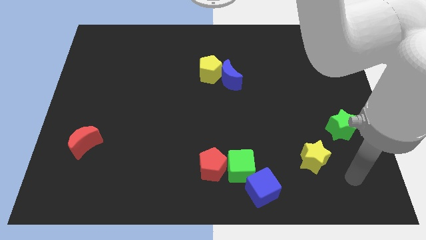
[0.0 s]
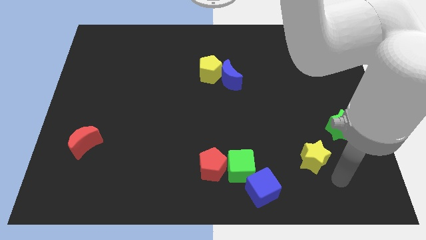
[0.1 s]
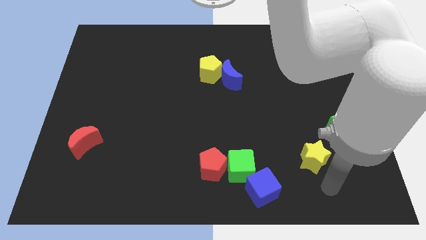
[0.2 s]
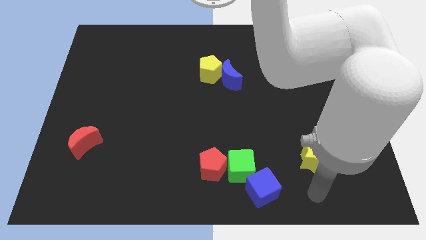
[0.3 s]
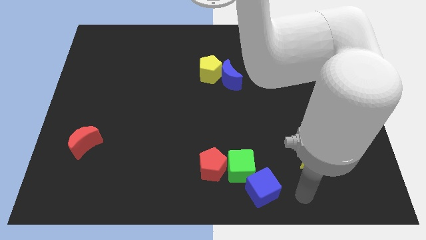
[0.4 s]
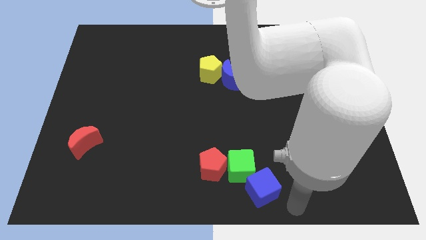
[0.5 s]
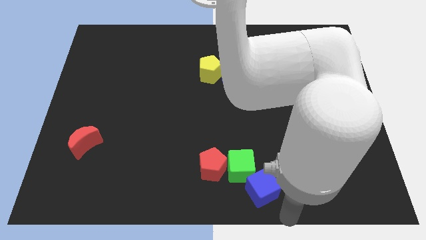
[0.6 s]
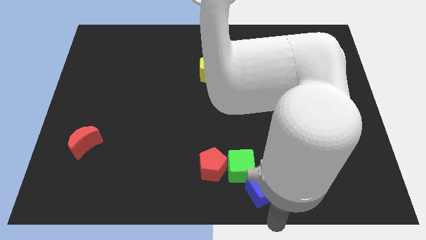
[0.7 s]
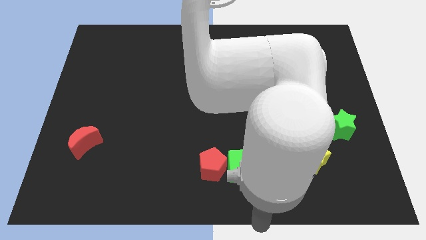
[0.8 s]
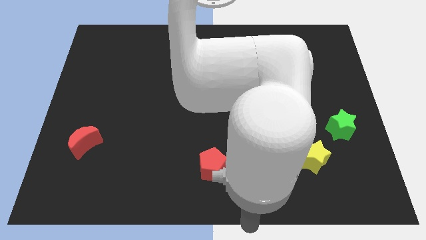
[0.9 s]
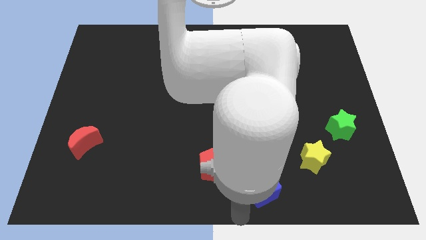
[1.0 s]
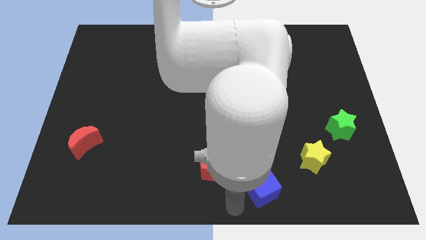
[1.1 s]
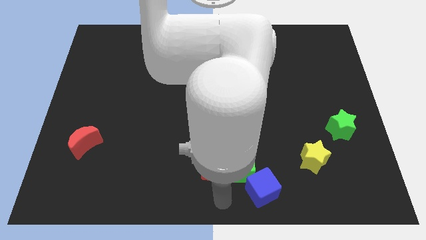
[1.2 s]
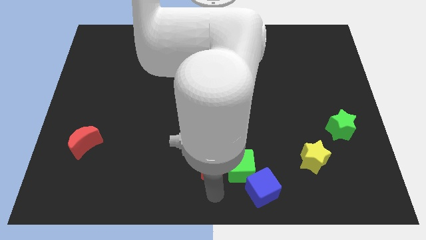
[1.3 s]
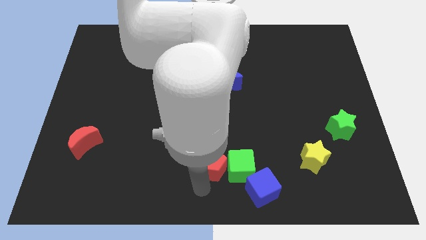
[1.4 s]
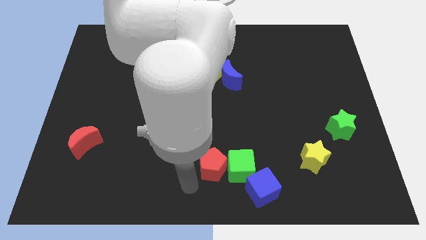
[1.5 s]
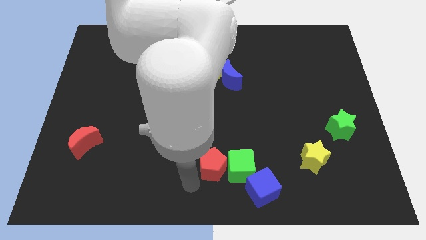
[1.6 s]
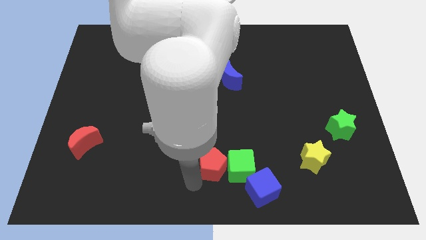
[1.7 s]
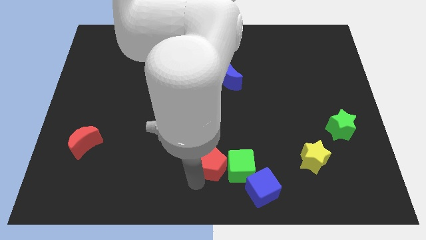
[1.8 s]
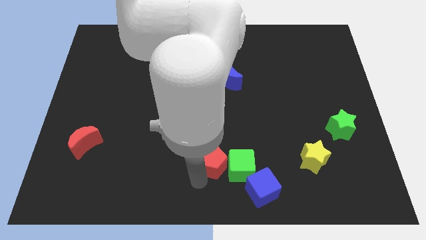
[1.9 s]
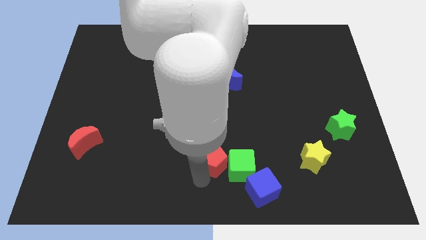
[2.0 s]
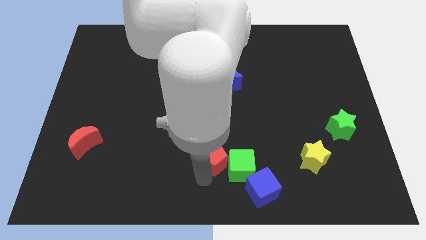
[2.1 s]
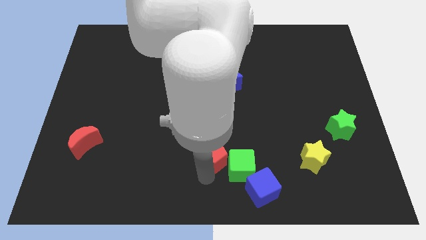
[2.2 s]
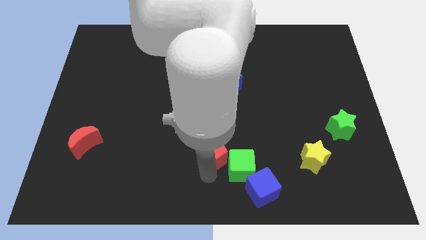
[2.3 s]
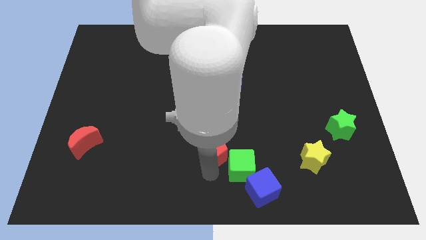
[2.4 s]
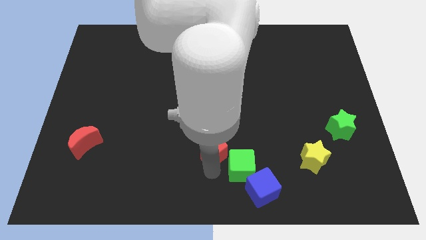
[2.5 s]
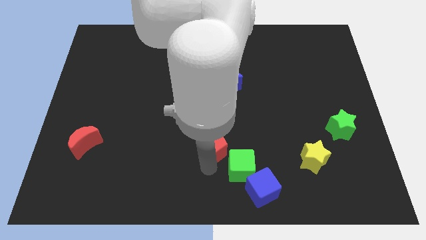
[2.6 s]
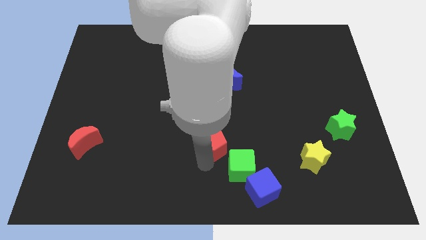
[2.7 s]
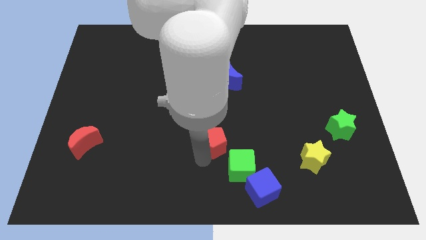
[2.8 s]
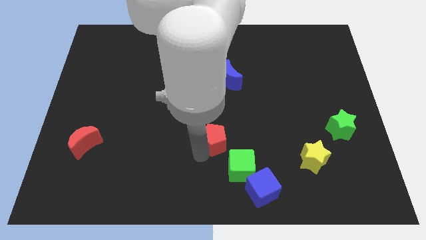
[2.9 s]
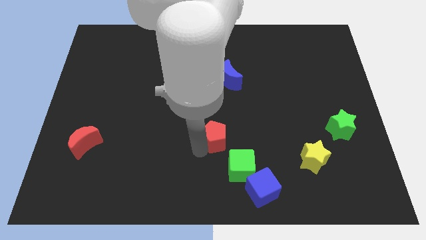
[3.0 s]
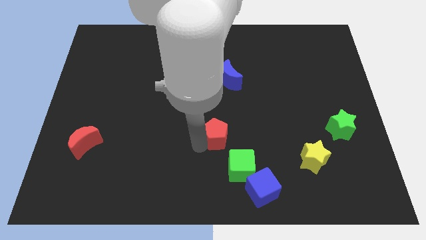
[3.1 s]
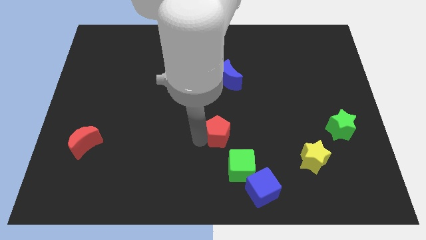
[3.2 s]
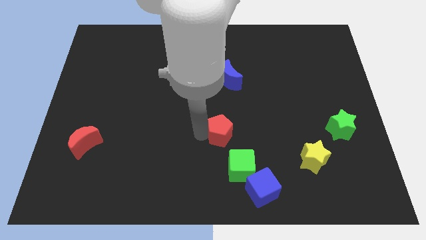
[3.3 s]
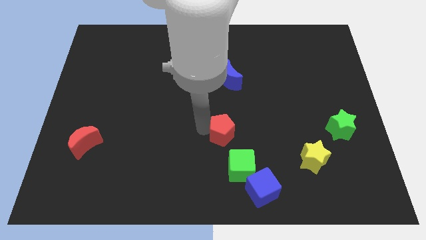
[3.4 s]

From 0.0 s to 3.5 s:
push the red pentagon up and right a little

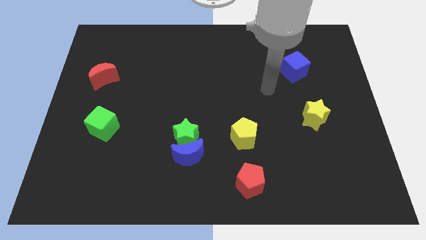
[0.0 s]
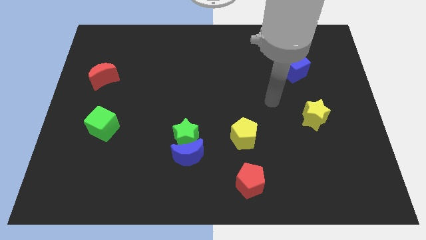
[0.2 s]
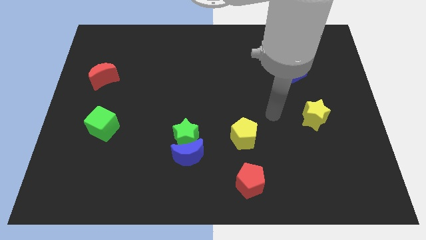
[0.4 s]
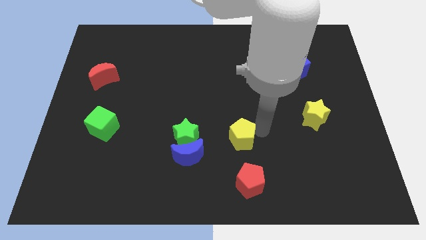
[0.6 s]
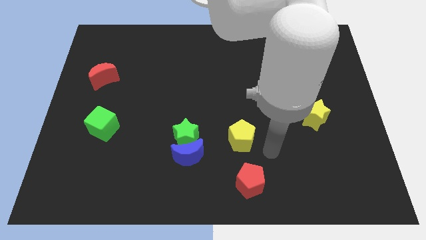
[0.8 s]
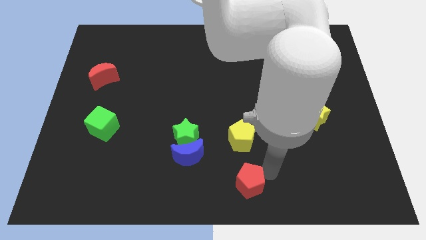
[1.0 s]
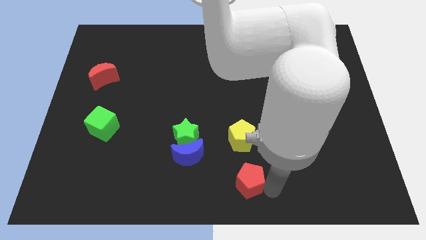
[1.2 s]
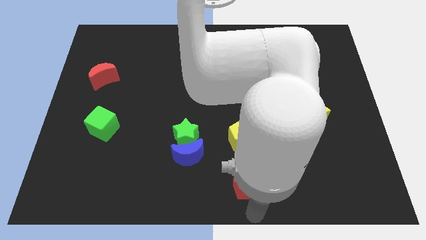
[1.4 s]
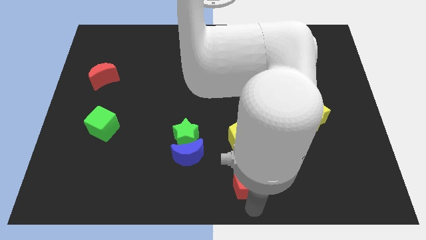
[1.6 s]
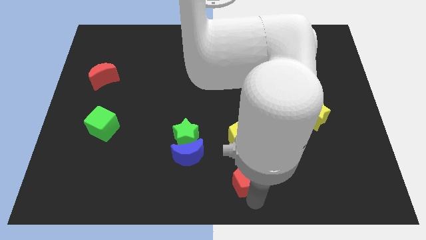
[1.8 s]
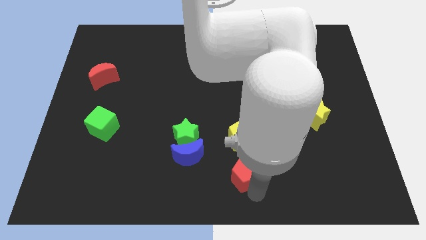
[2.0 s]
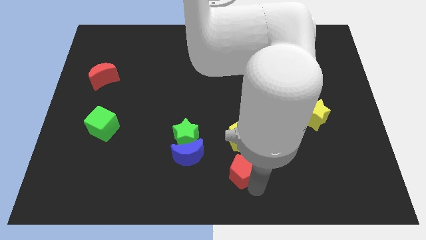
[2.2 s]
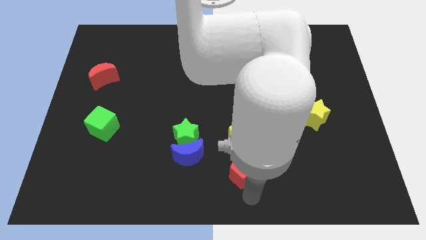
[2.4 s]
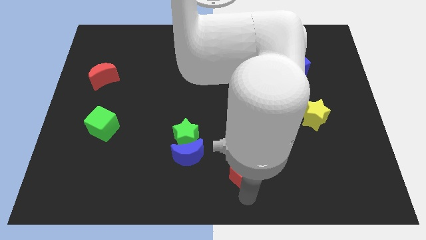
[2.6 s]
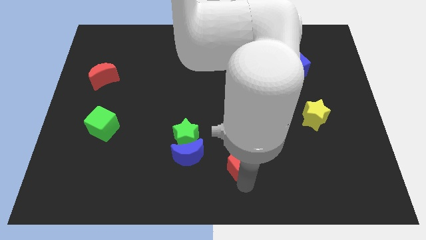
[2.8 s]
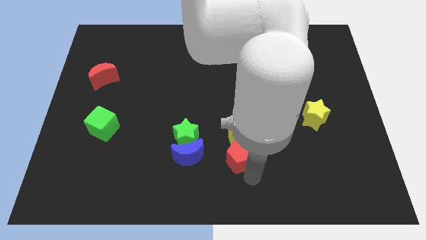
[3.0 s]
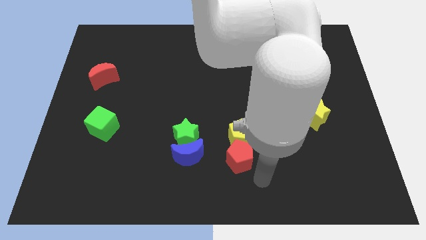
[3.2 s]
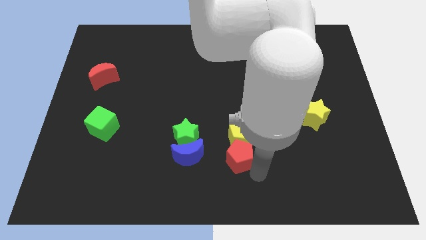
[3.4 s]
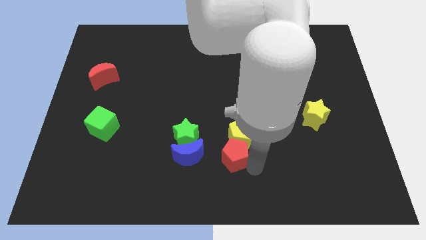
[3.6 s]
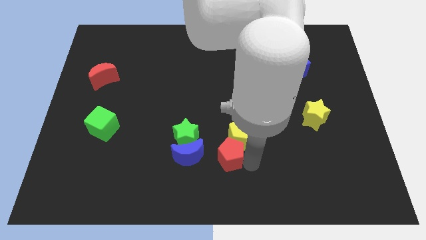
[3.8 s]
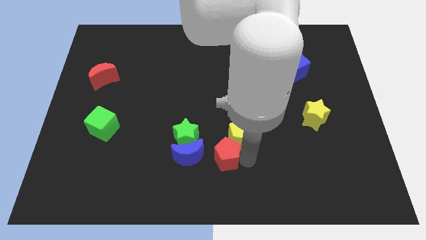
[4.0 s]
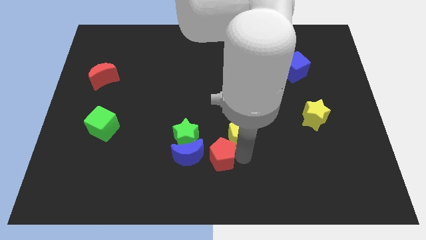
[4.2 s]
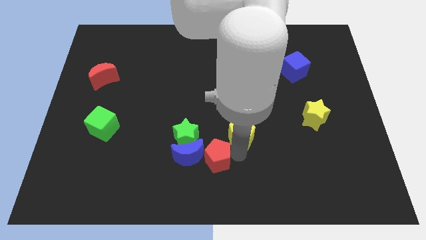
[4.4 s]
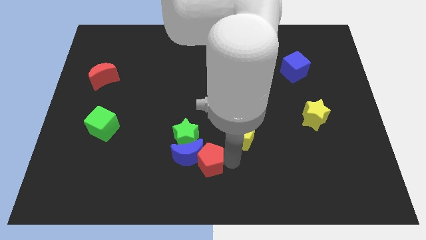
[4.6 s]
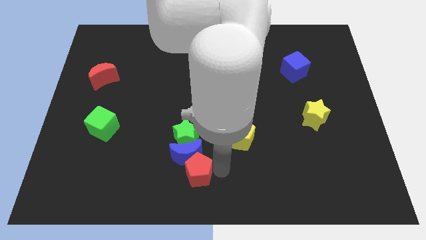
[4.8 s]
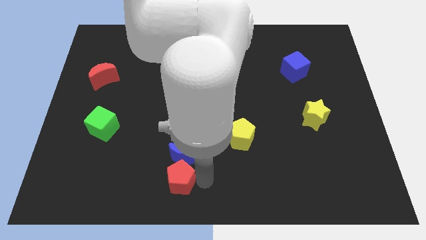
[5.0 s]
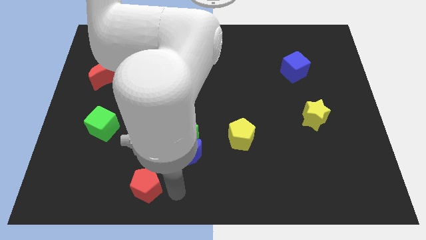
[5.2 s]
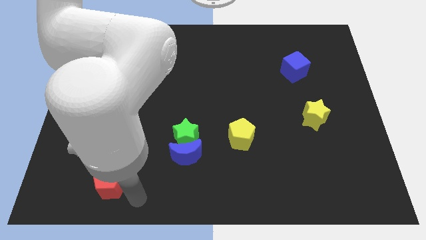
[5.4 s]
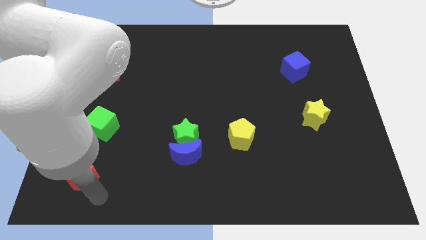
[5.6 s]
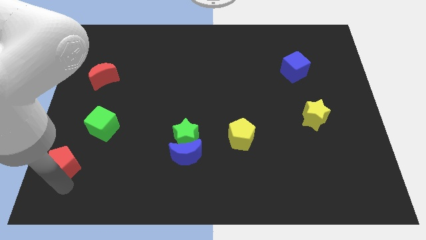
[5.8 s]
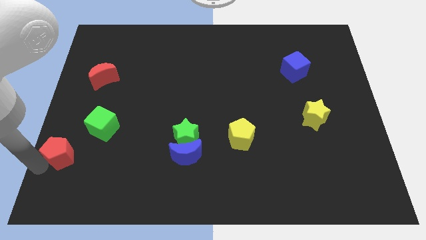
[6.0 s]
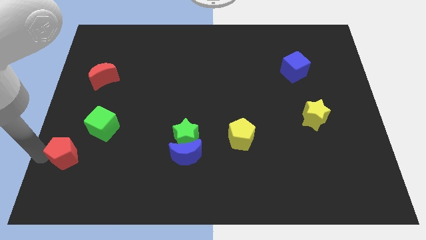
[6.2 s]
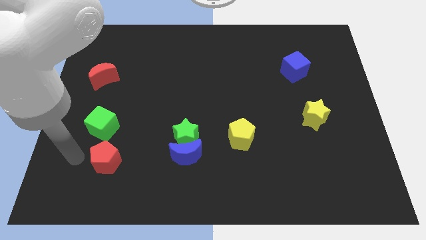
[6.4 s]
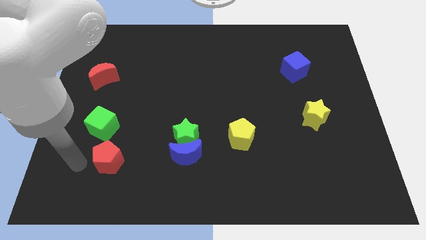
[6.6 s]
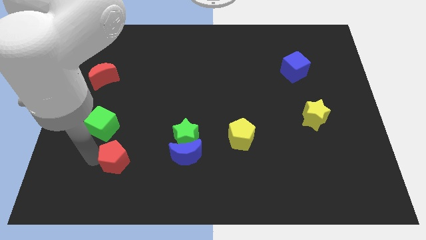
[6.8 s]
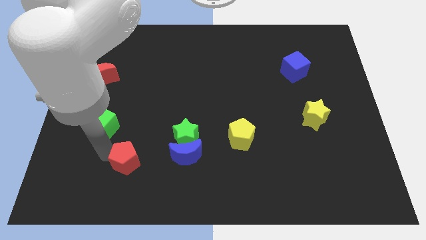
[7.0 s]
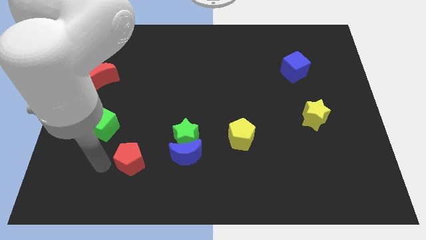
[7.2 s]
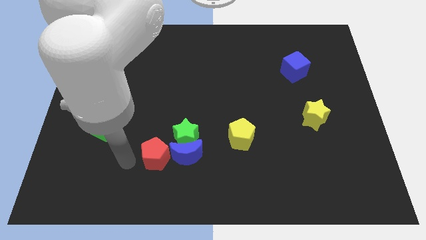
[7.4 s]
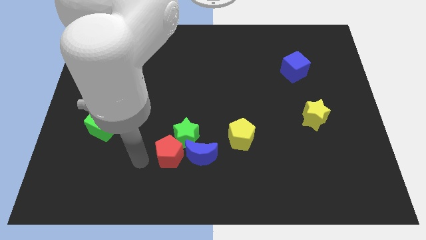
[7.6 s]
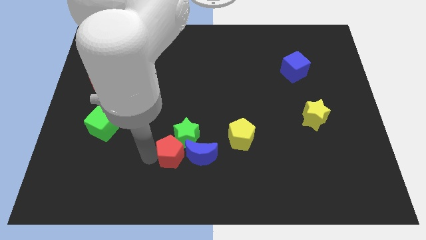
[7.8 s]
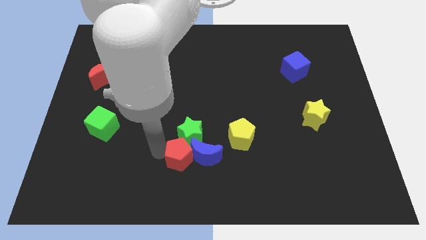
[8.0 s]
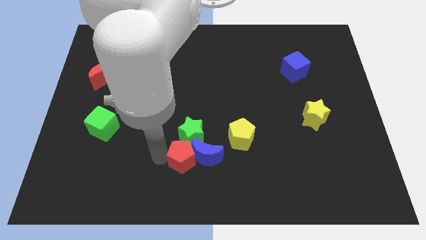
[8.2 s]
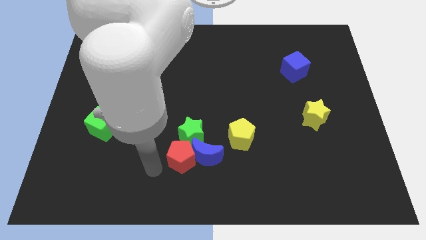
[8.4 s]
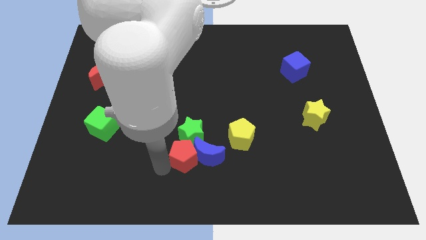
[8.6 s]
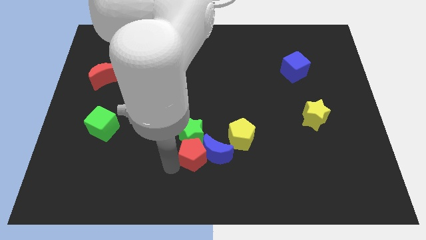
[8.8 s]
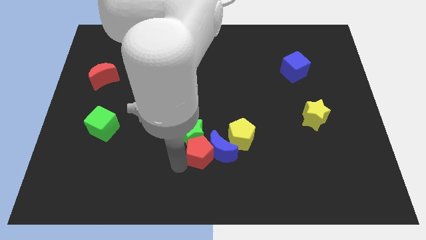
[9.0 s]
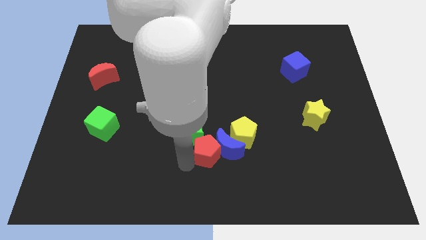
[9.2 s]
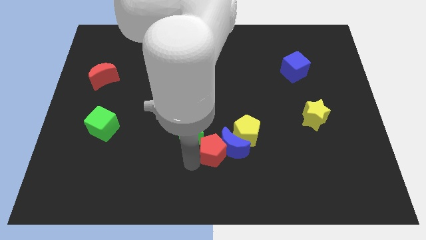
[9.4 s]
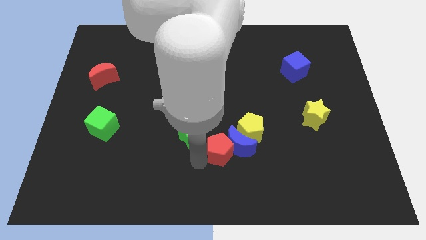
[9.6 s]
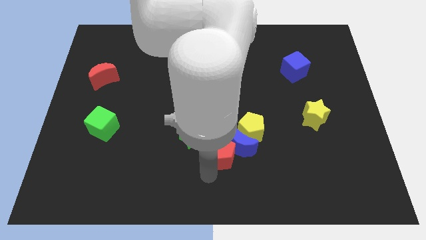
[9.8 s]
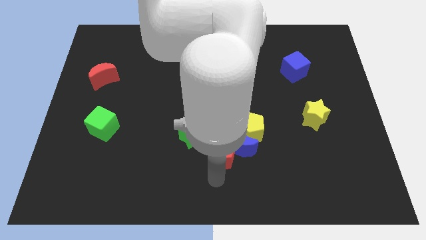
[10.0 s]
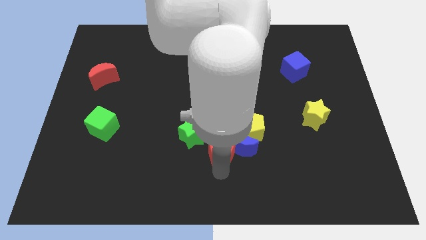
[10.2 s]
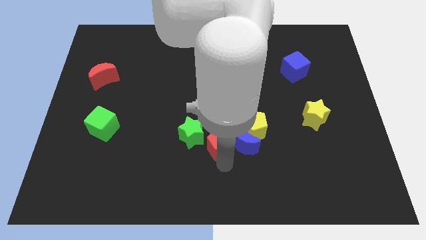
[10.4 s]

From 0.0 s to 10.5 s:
slide the red pentagon up a little bit
